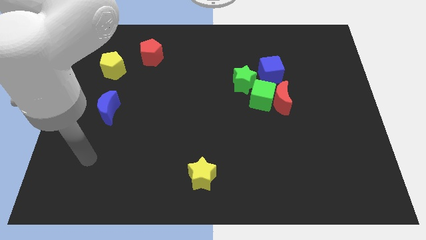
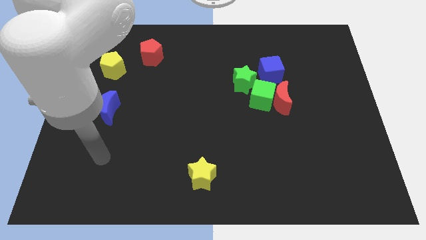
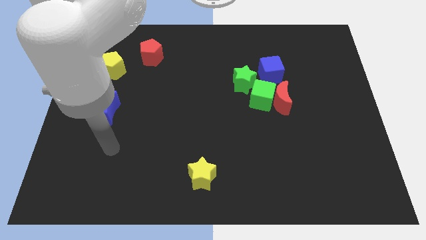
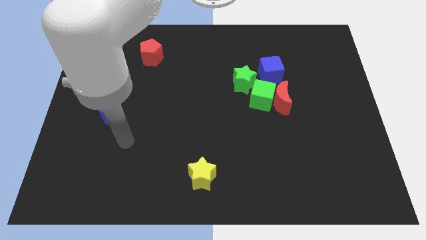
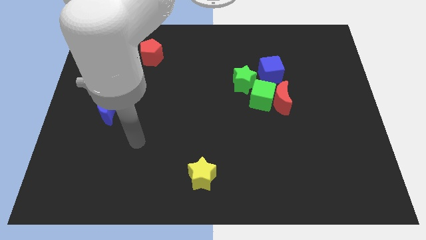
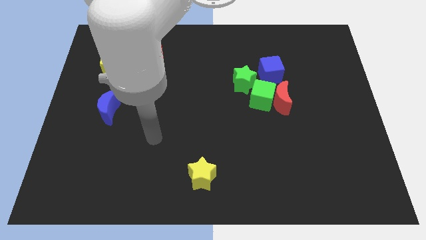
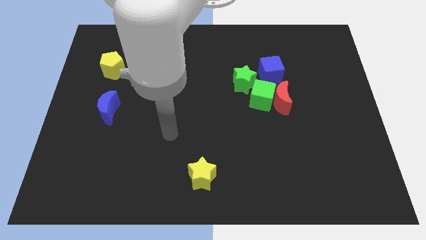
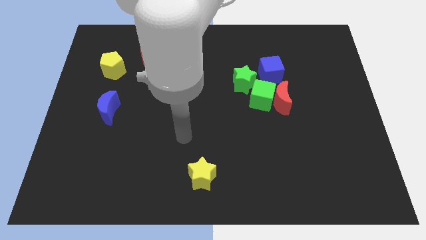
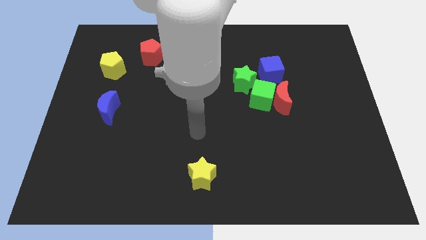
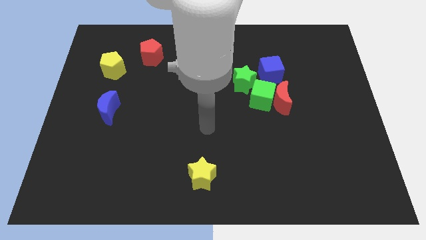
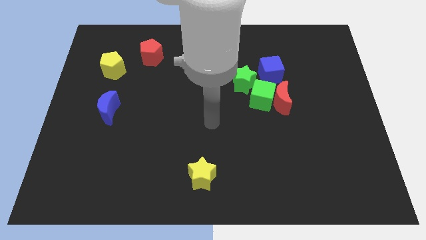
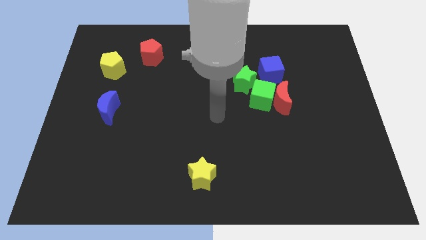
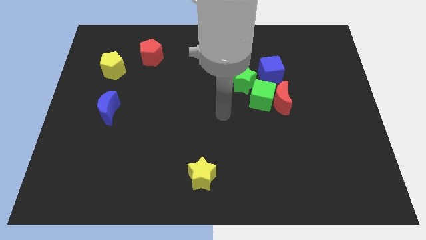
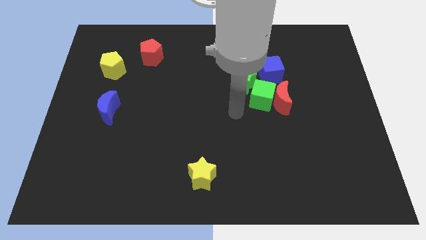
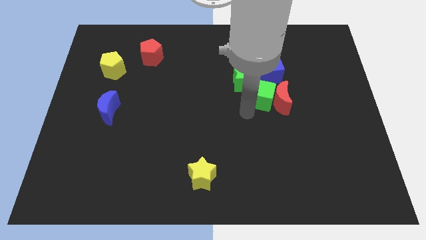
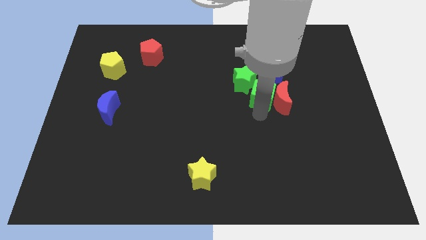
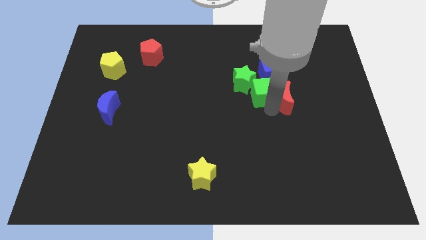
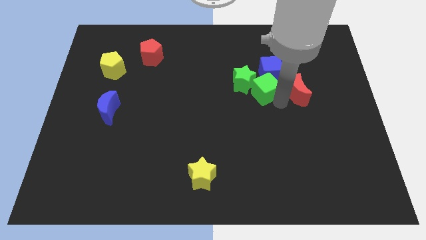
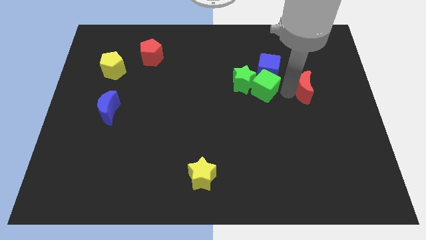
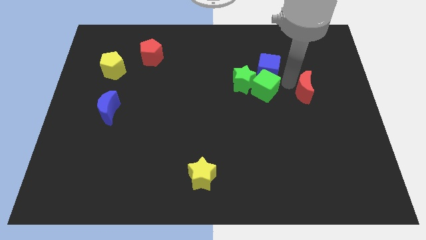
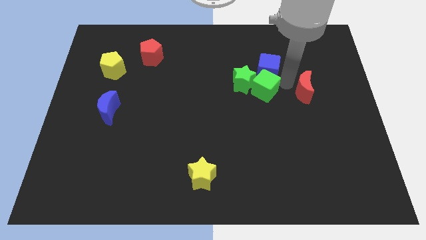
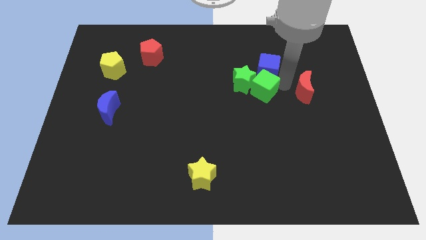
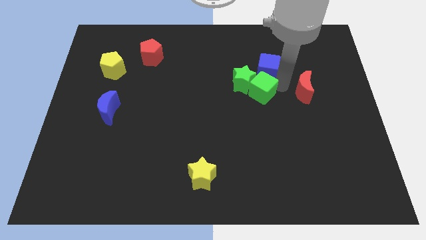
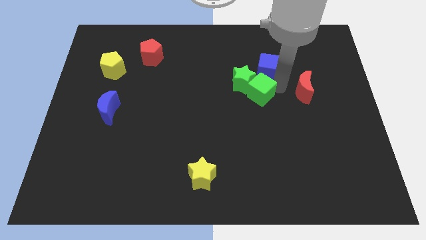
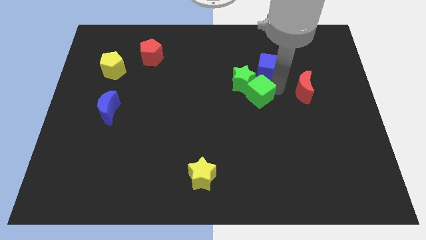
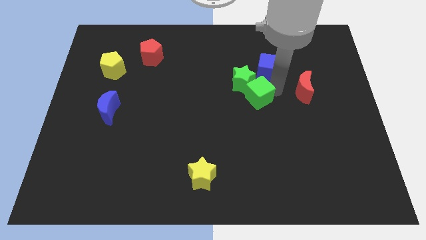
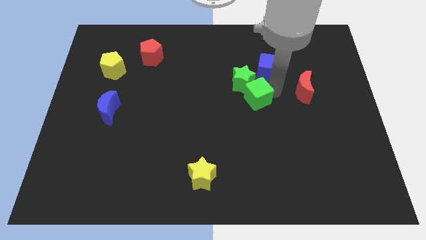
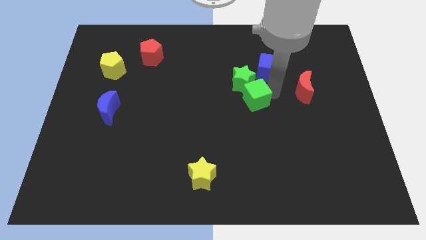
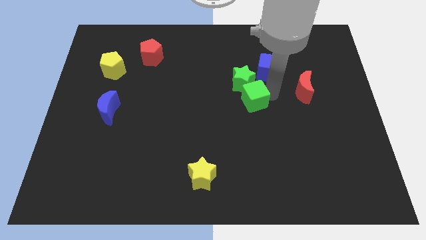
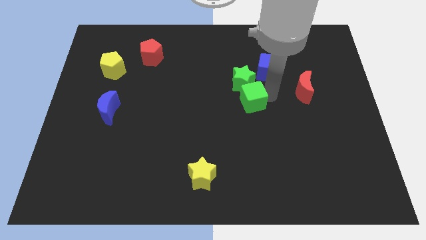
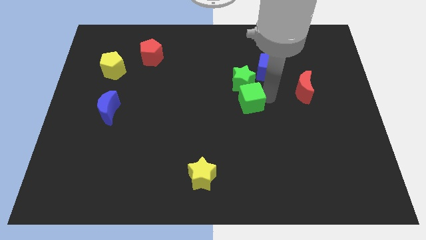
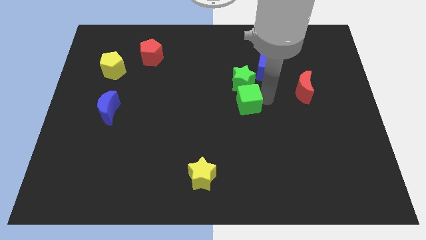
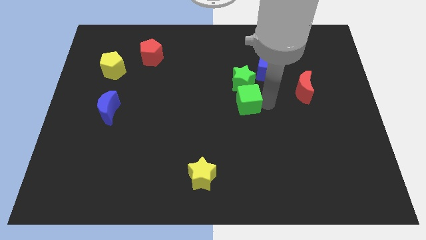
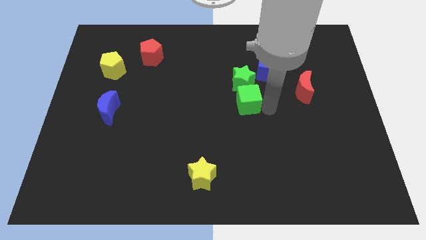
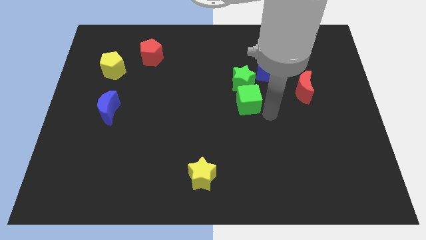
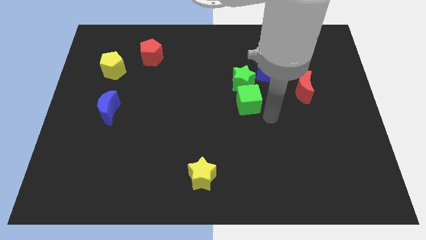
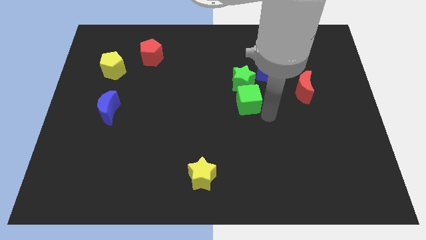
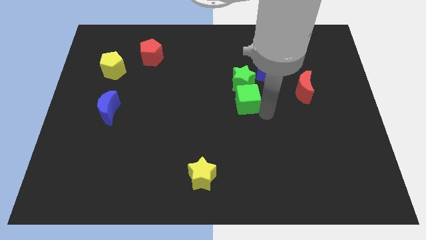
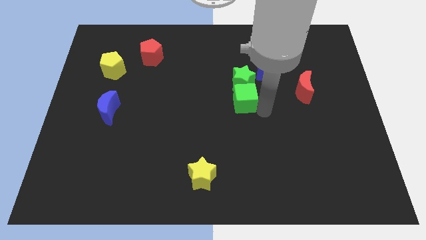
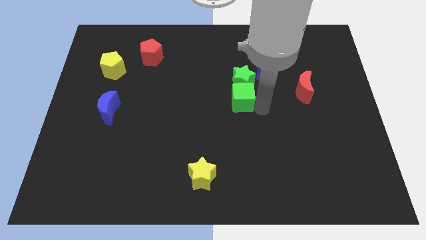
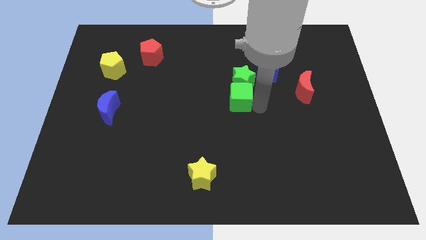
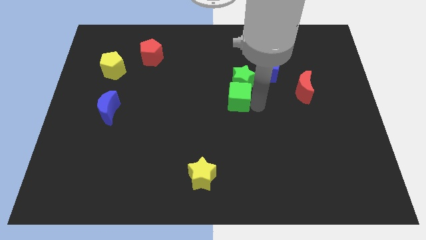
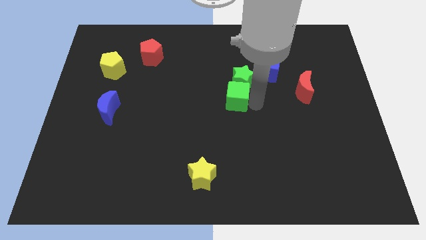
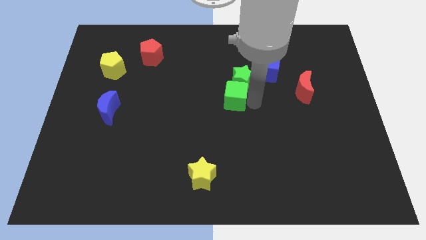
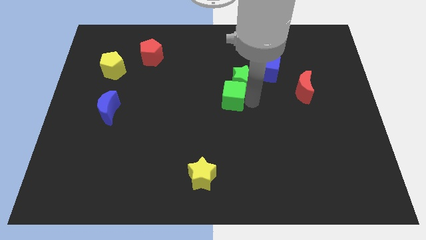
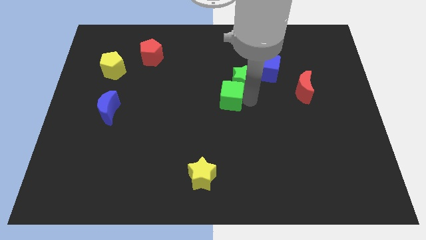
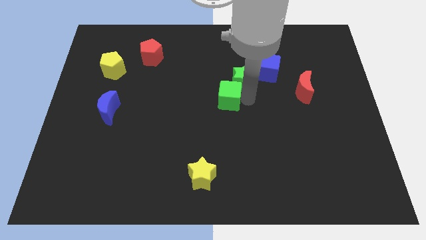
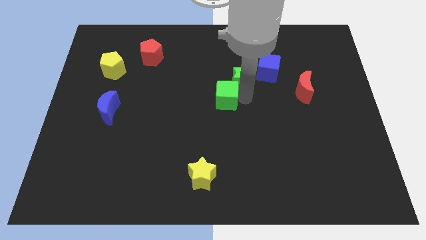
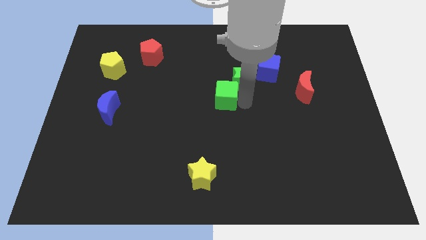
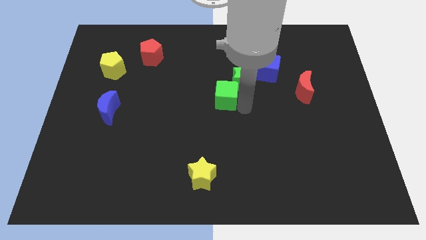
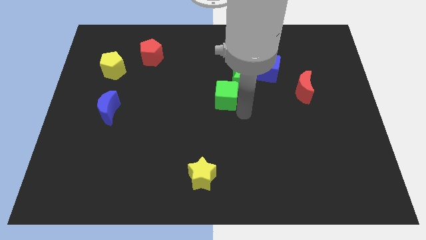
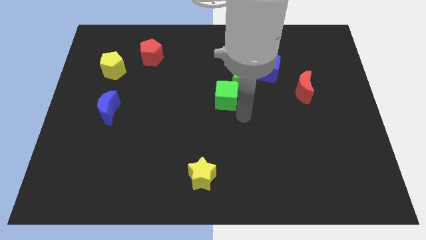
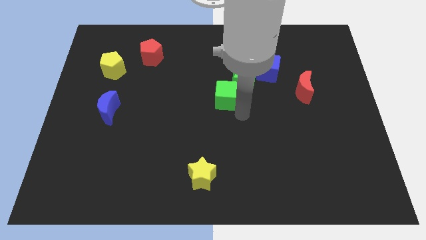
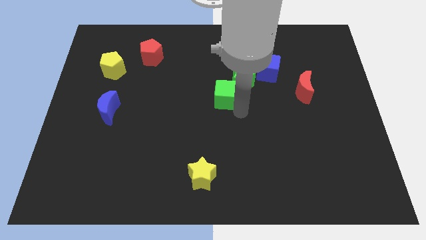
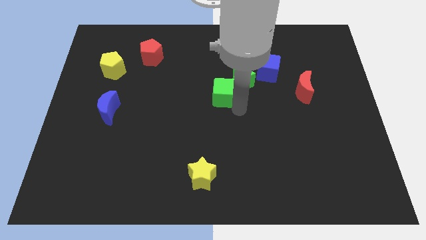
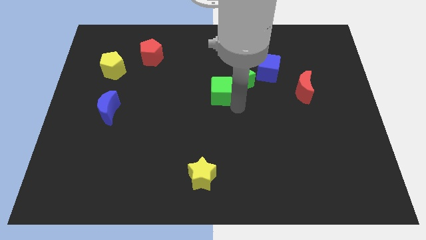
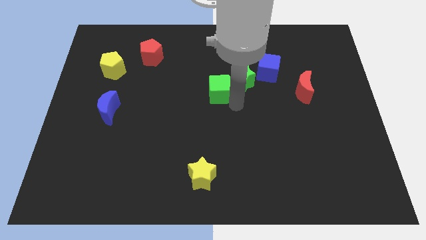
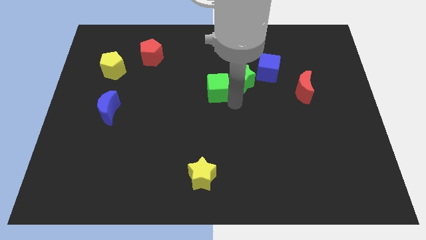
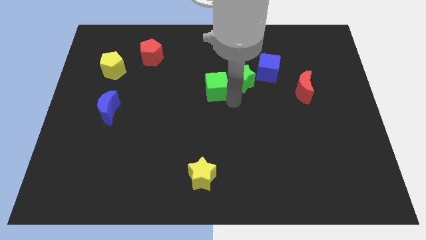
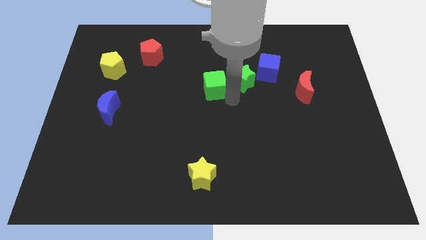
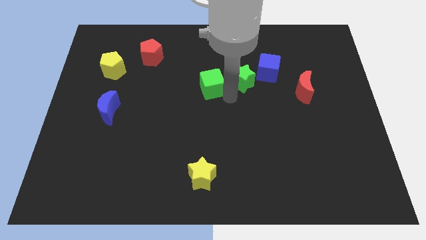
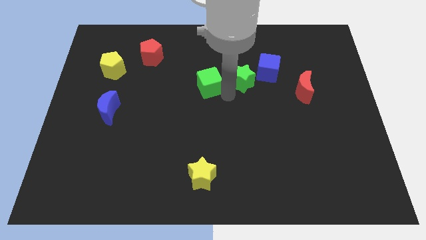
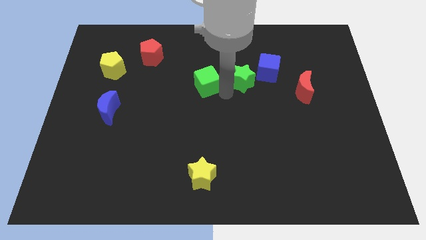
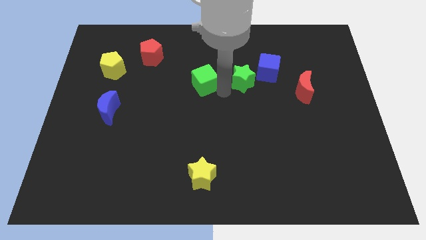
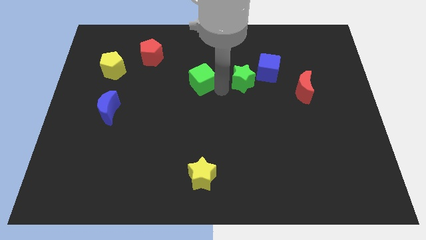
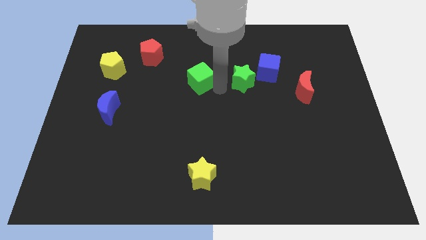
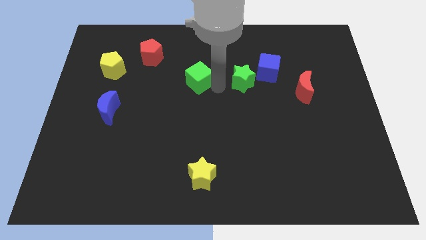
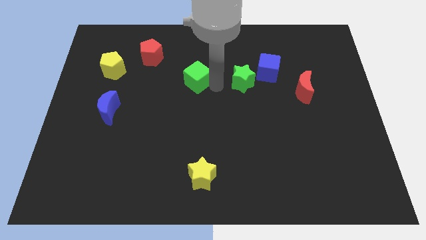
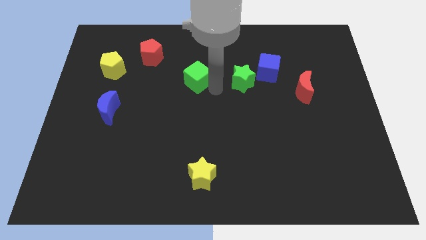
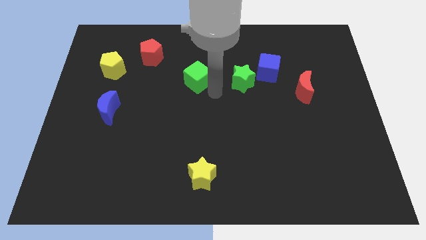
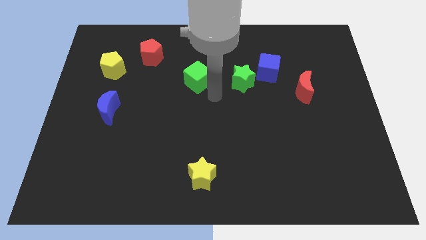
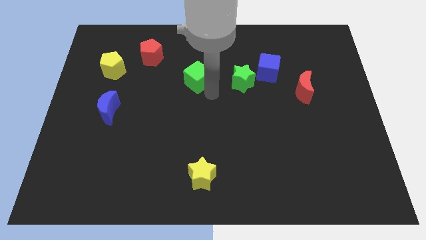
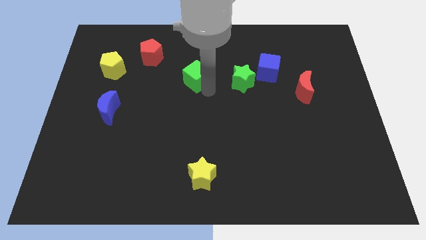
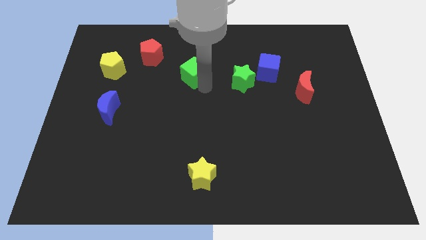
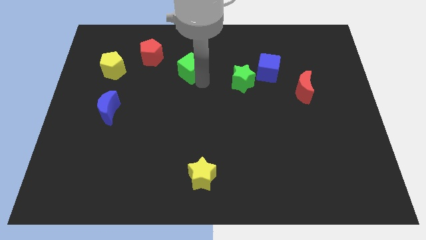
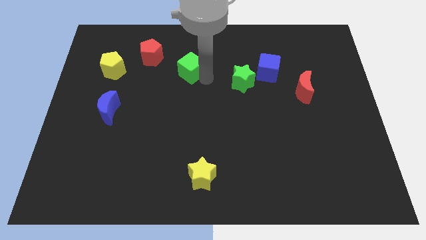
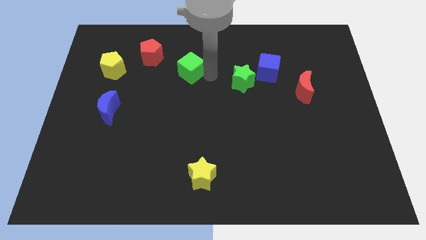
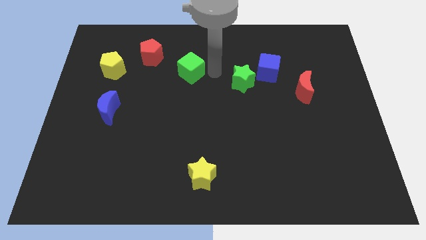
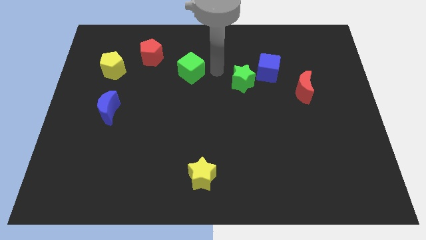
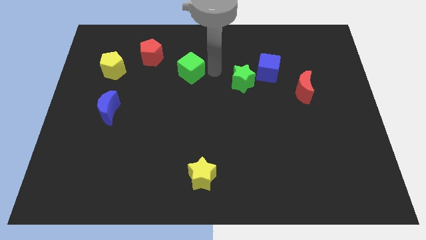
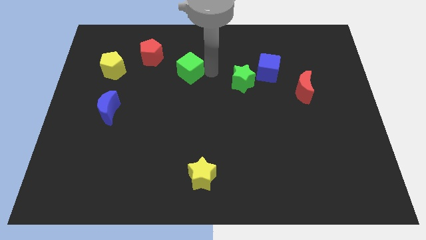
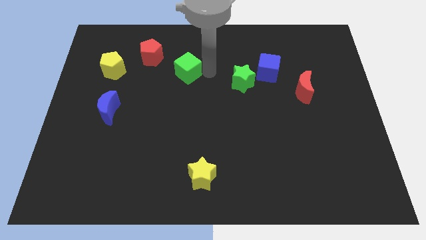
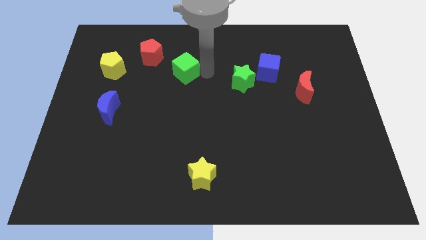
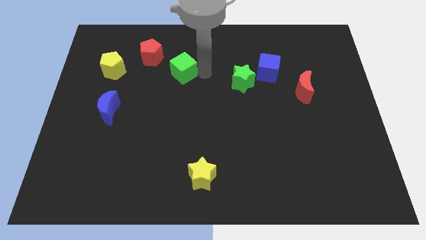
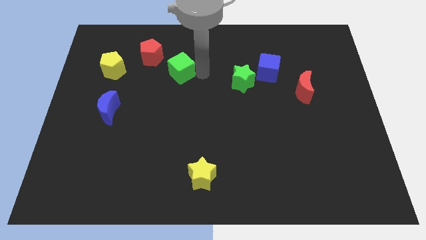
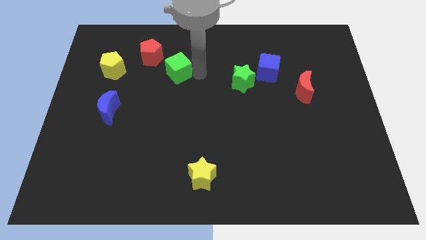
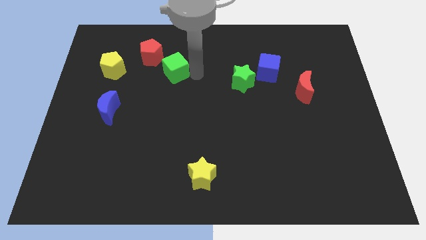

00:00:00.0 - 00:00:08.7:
move the green cube to the right side of the yellow pentagon
